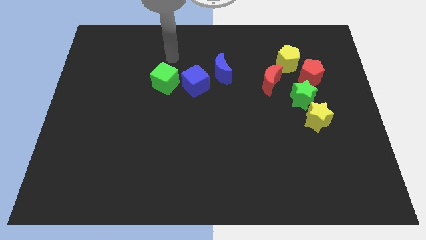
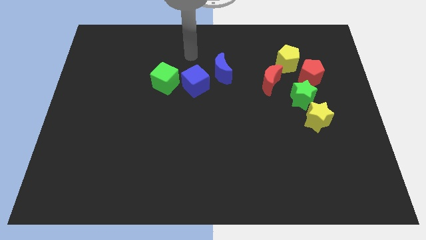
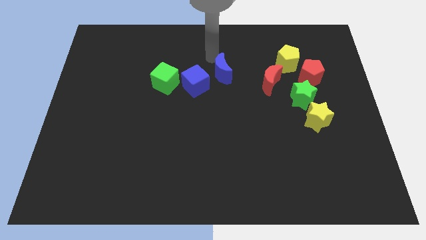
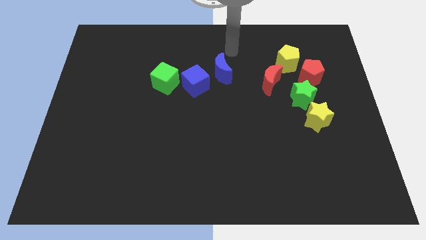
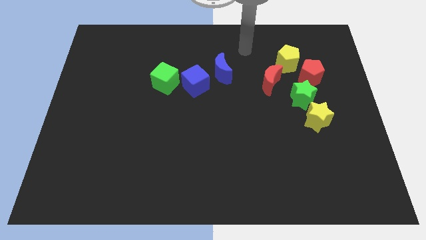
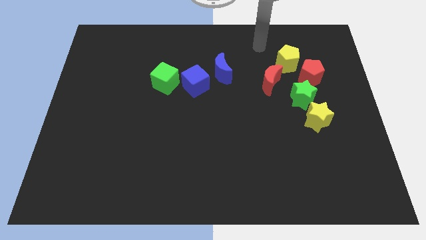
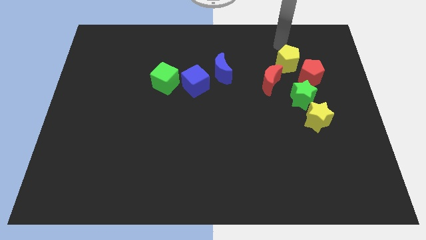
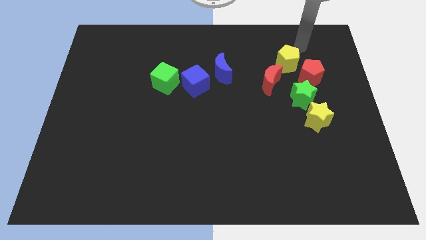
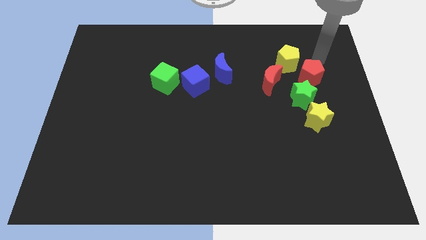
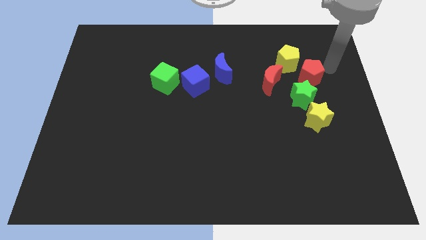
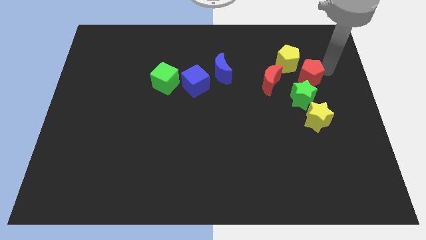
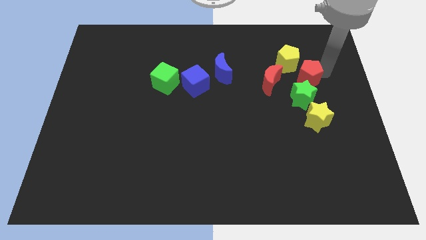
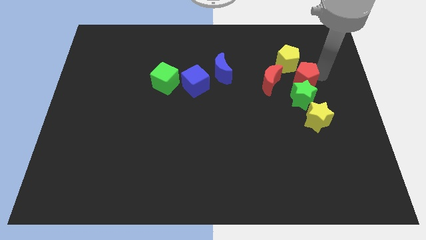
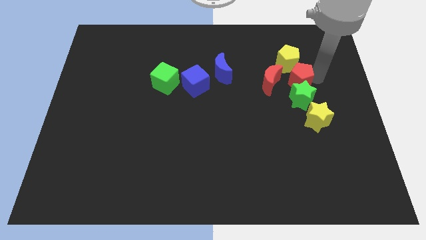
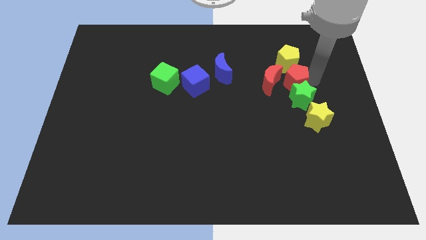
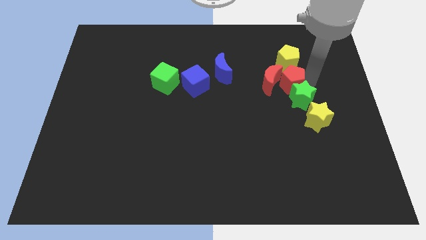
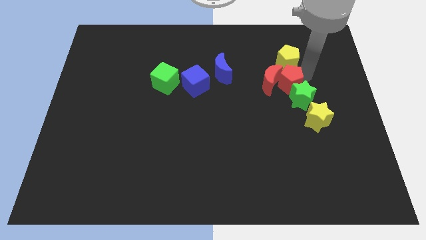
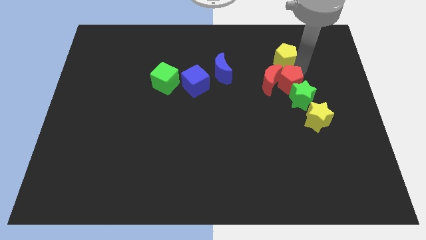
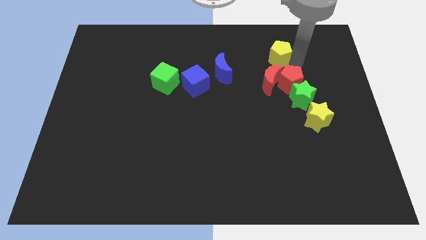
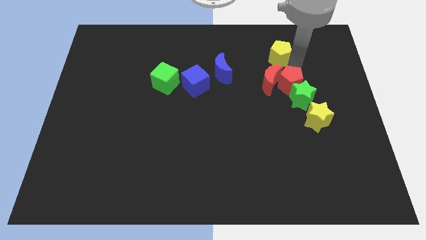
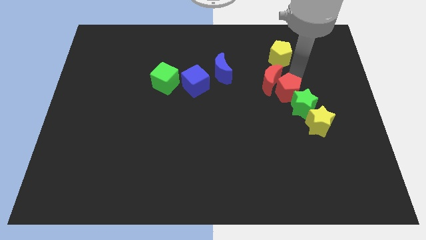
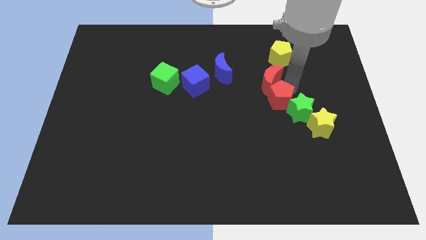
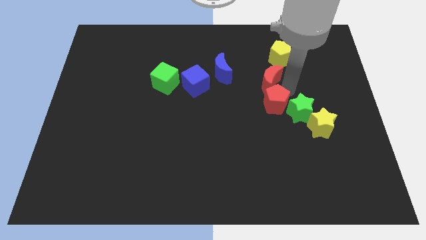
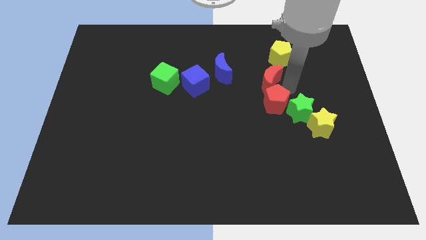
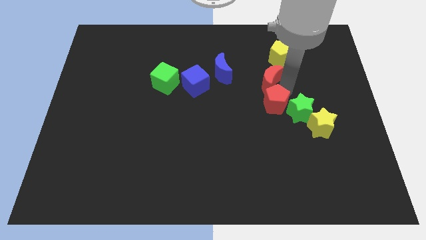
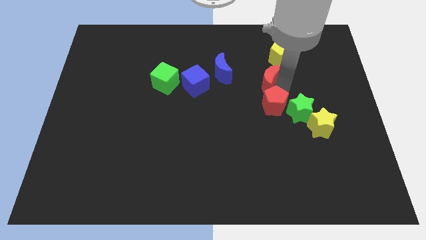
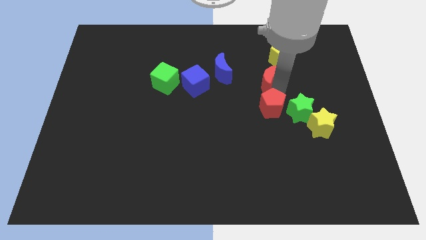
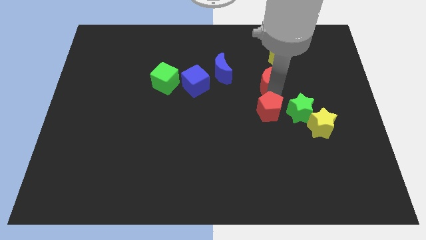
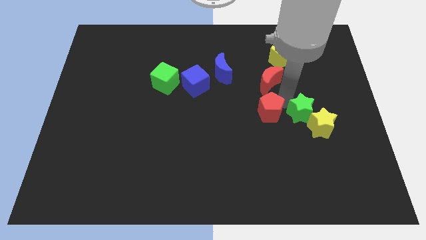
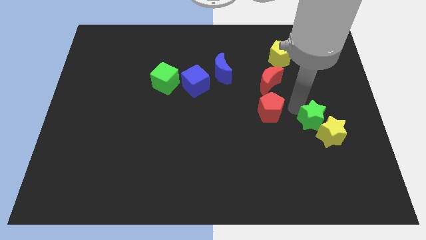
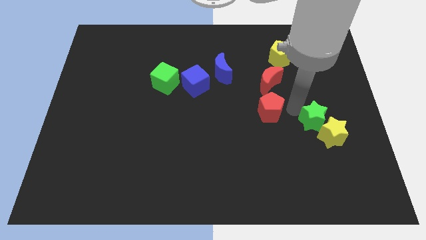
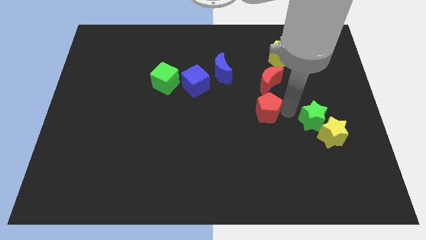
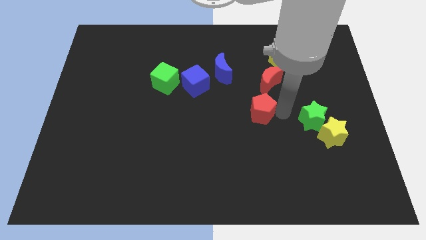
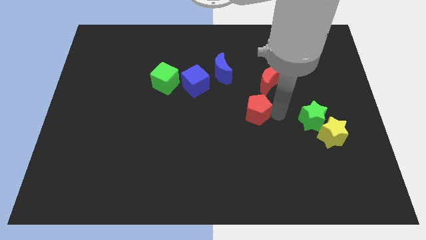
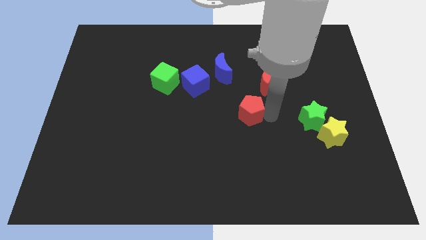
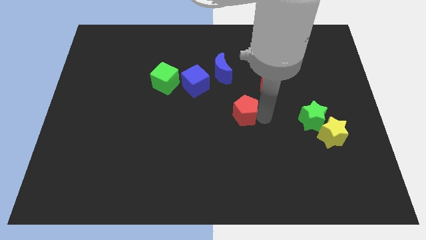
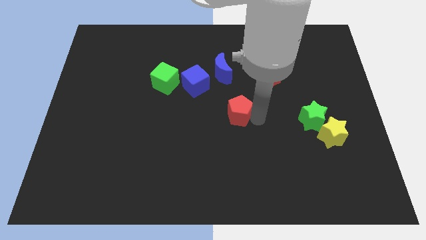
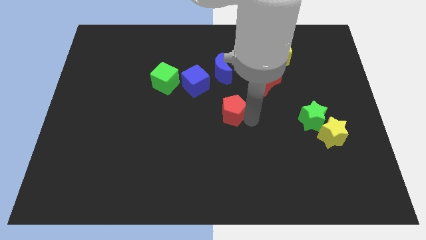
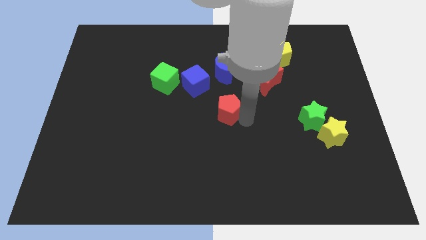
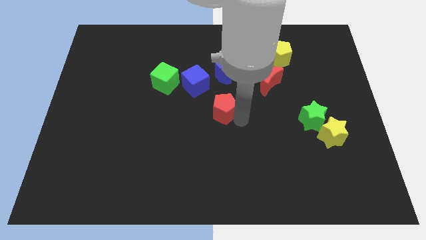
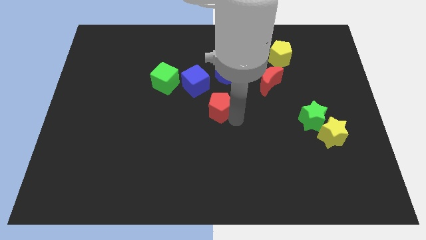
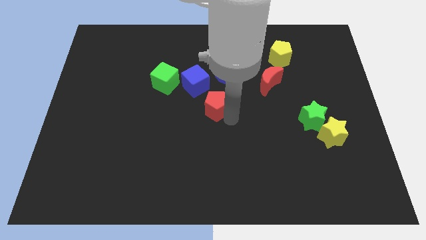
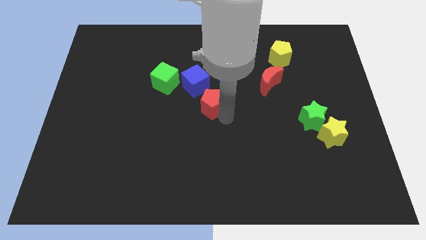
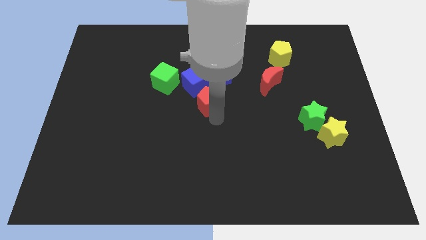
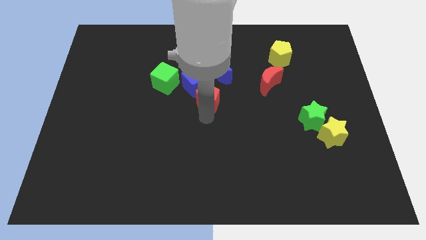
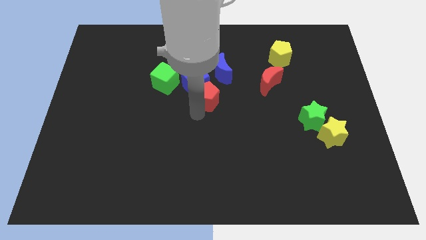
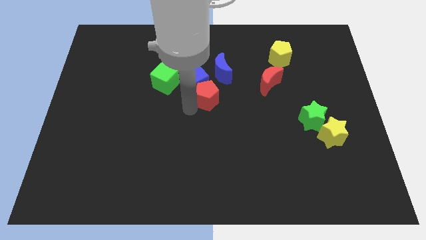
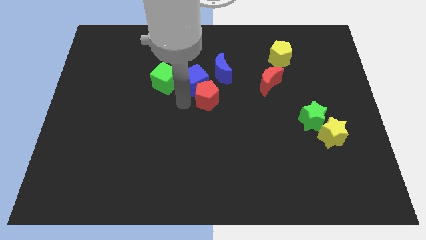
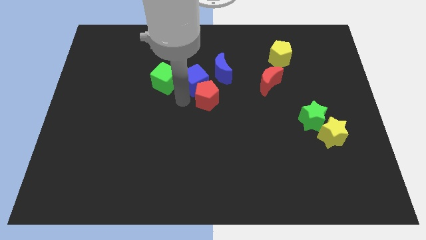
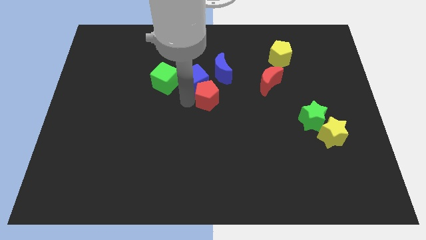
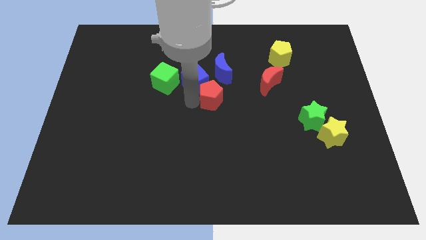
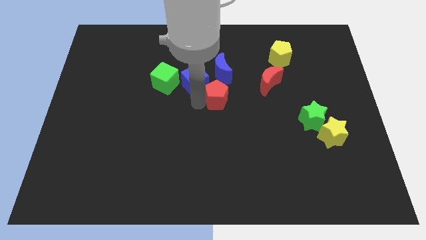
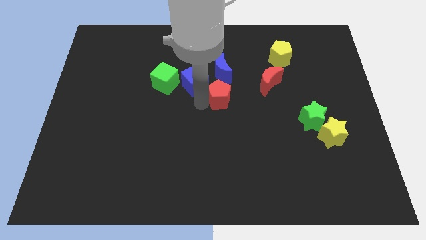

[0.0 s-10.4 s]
slide the red pentagon to the left of the red moon
